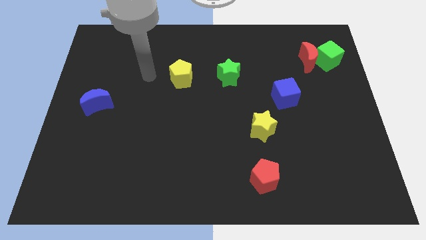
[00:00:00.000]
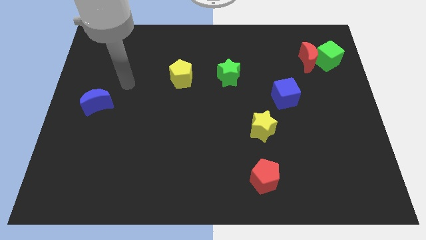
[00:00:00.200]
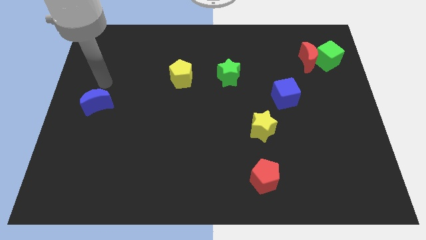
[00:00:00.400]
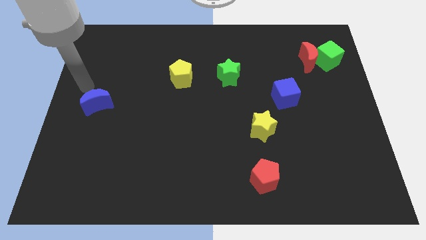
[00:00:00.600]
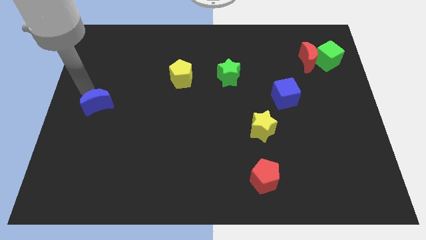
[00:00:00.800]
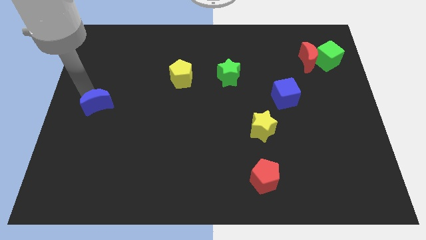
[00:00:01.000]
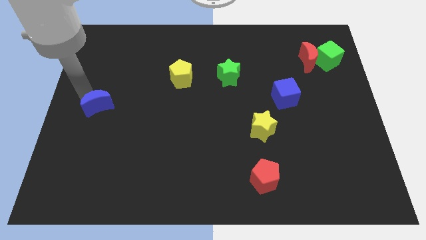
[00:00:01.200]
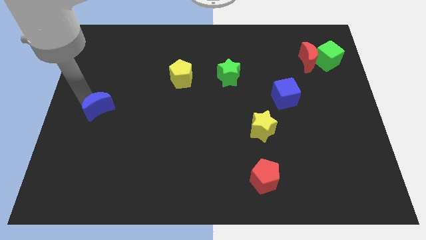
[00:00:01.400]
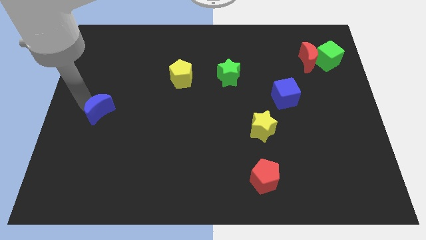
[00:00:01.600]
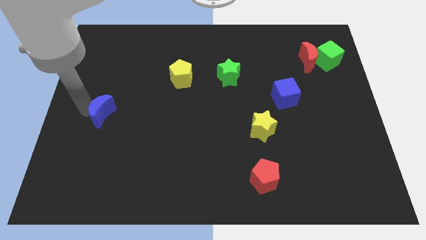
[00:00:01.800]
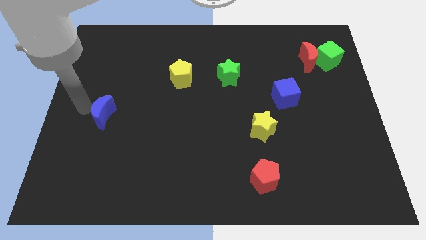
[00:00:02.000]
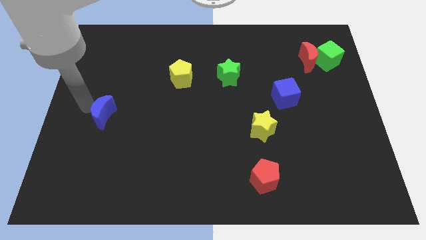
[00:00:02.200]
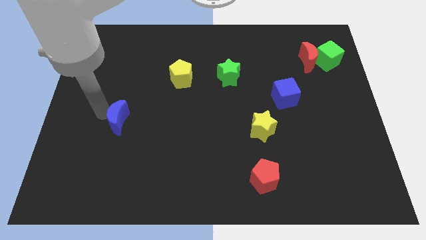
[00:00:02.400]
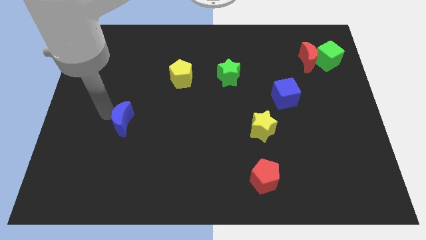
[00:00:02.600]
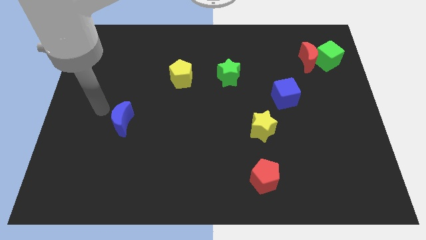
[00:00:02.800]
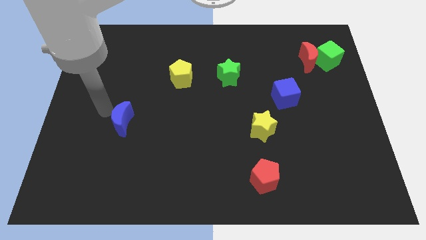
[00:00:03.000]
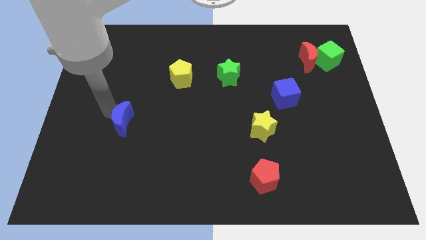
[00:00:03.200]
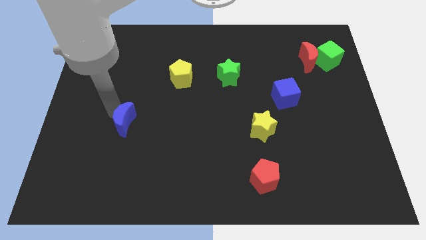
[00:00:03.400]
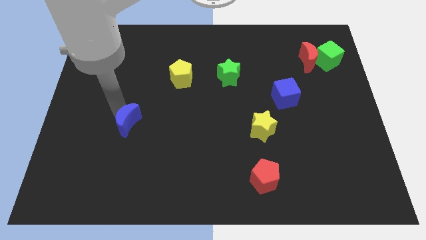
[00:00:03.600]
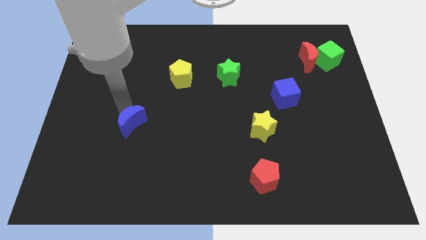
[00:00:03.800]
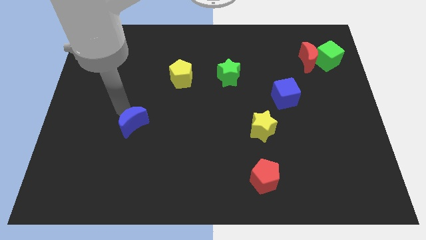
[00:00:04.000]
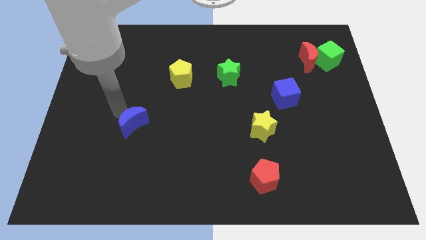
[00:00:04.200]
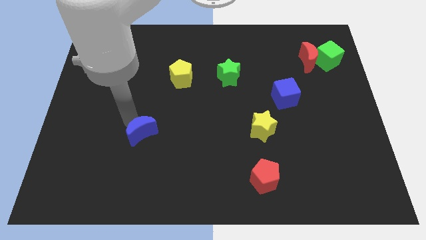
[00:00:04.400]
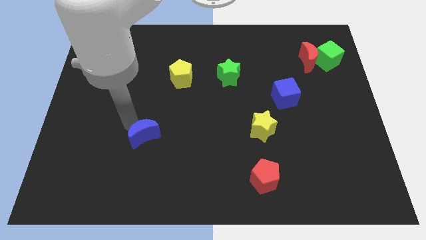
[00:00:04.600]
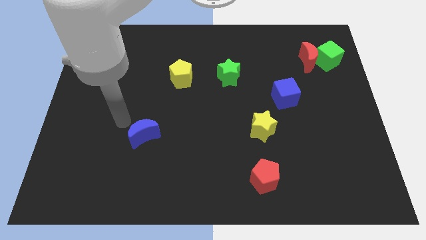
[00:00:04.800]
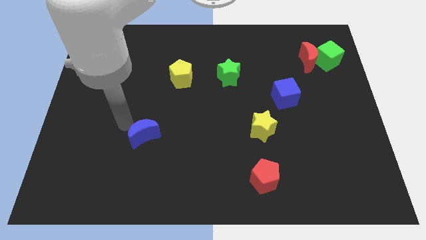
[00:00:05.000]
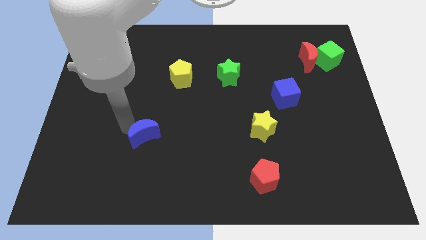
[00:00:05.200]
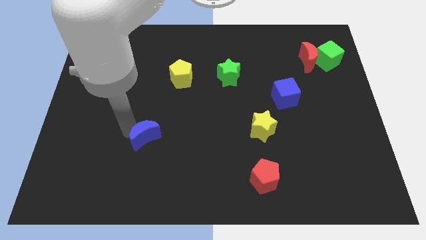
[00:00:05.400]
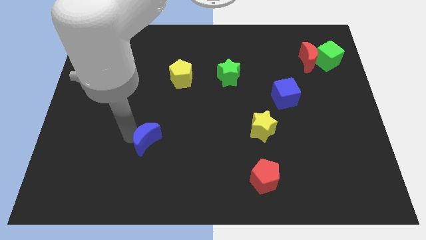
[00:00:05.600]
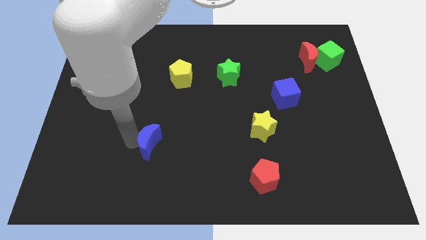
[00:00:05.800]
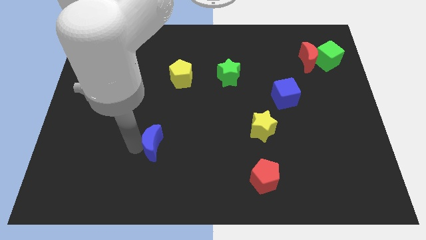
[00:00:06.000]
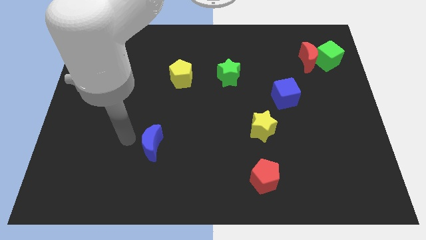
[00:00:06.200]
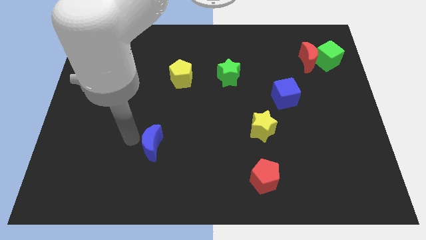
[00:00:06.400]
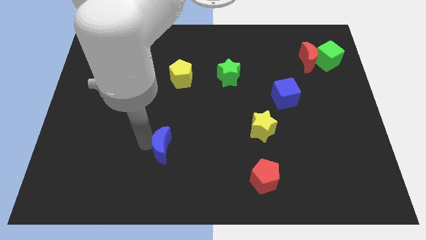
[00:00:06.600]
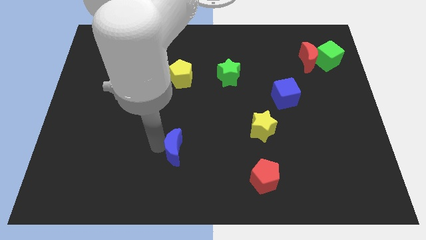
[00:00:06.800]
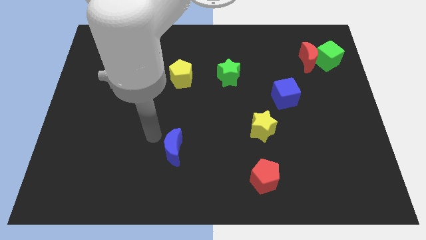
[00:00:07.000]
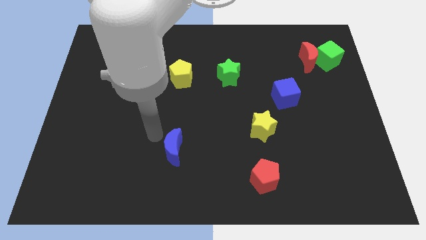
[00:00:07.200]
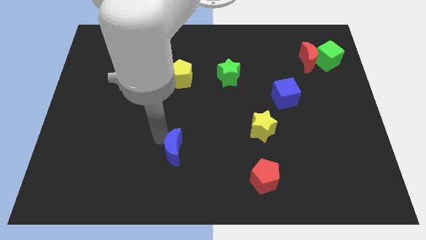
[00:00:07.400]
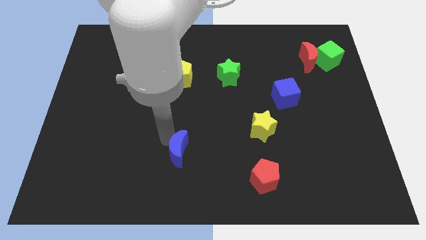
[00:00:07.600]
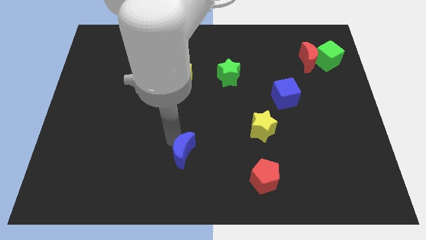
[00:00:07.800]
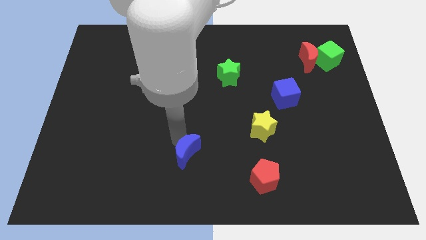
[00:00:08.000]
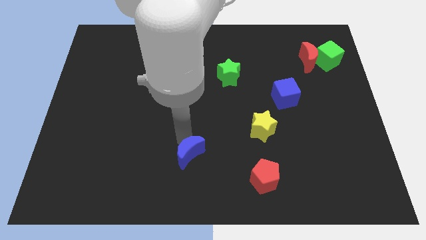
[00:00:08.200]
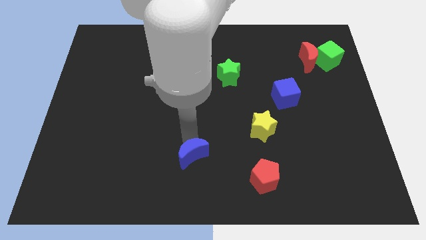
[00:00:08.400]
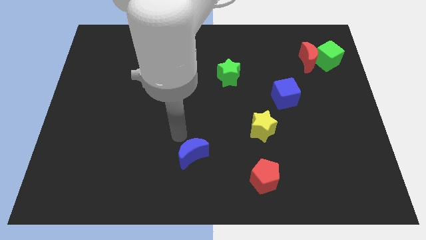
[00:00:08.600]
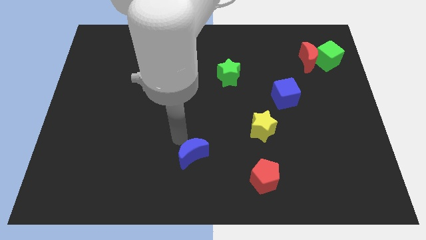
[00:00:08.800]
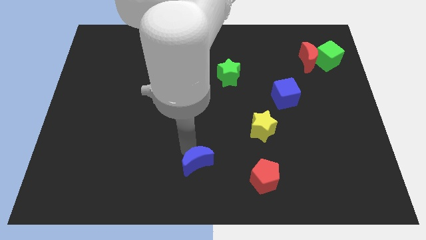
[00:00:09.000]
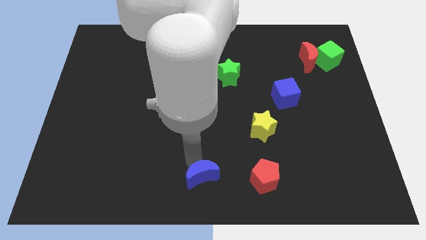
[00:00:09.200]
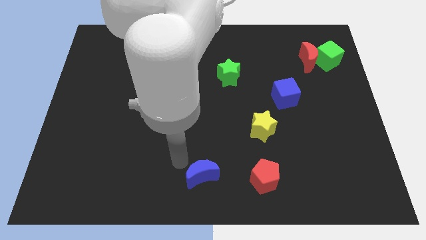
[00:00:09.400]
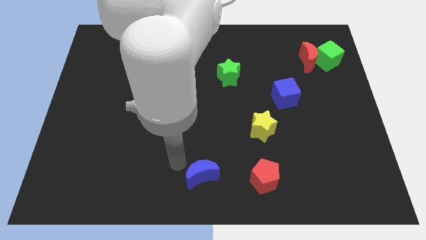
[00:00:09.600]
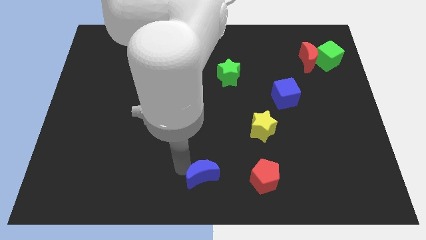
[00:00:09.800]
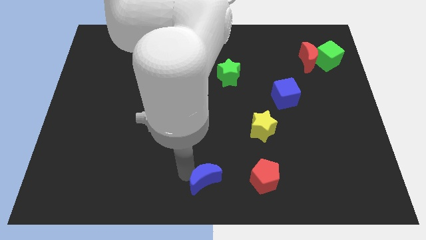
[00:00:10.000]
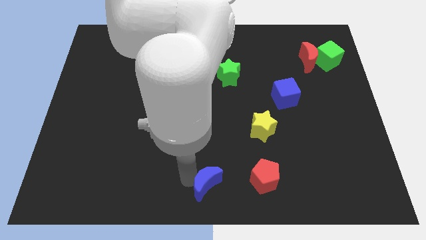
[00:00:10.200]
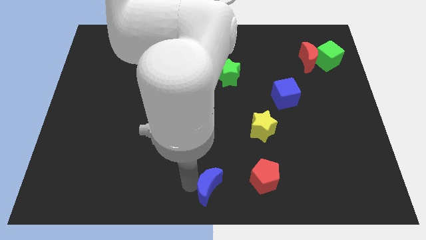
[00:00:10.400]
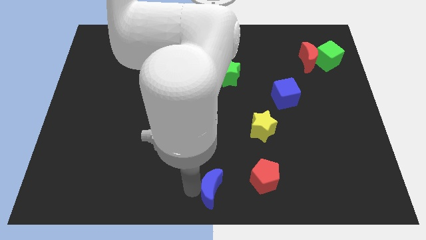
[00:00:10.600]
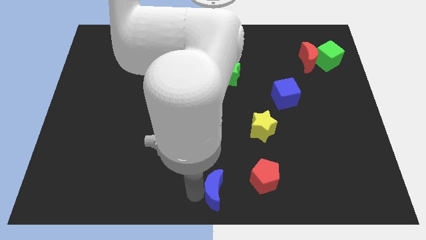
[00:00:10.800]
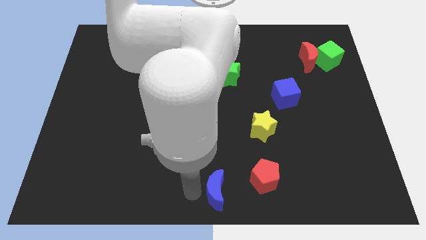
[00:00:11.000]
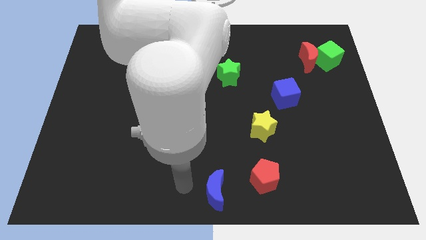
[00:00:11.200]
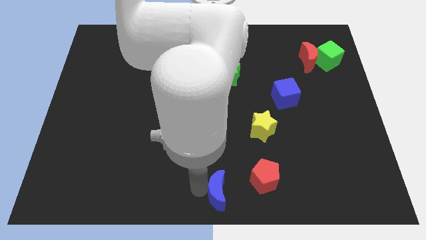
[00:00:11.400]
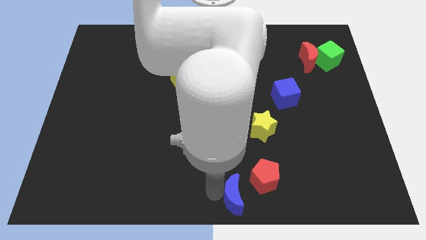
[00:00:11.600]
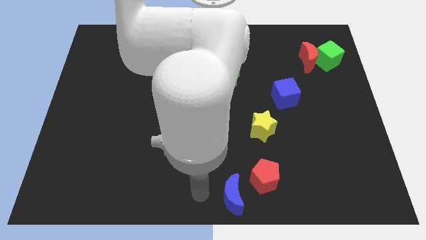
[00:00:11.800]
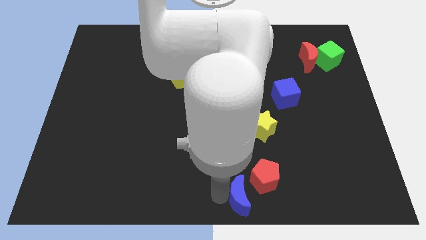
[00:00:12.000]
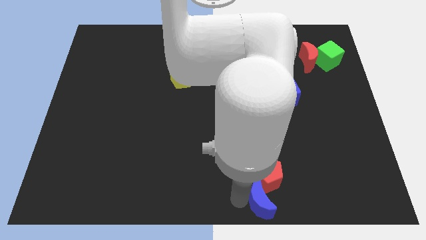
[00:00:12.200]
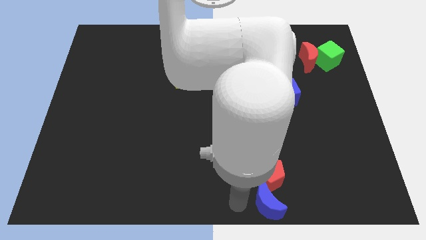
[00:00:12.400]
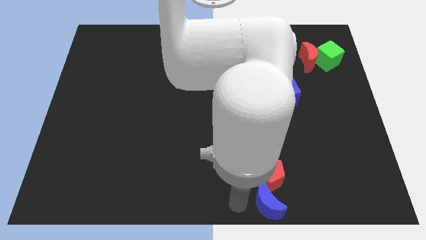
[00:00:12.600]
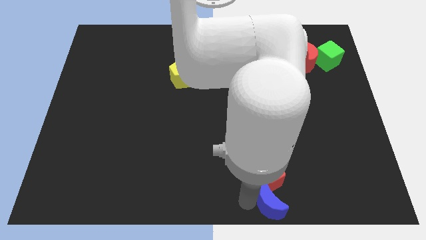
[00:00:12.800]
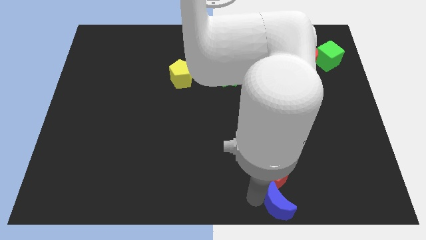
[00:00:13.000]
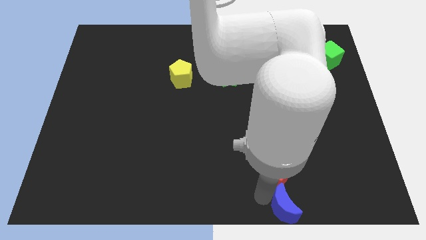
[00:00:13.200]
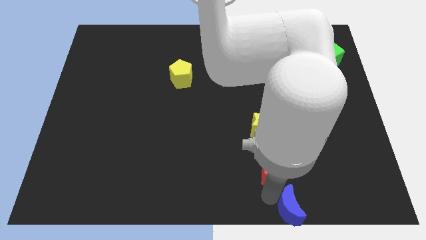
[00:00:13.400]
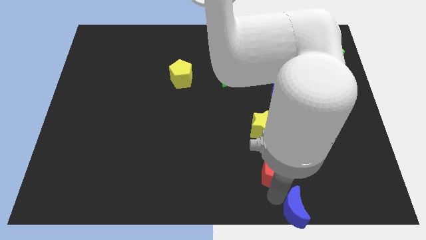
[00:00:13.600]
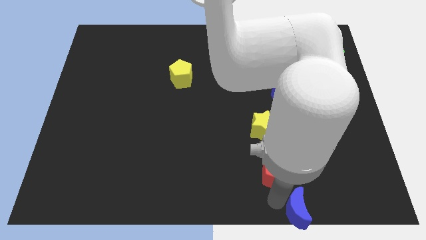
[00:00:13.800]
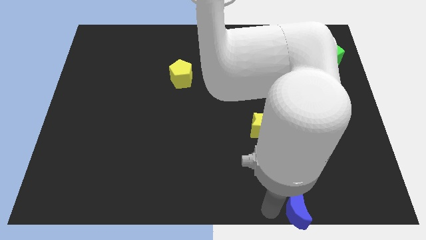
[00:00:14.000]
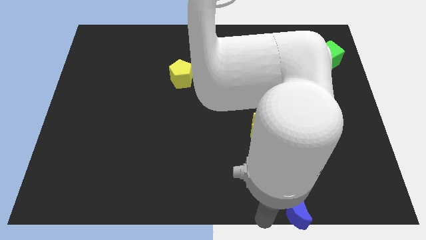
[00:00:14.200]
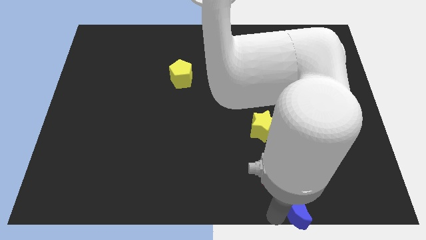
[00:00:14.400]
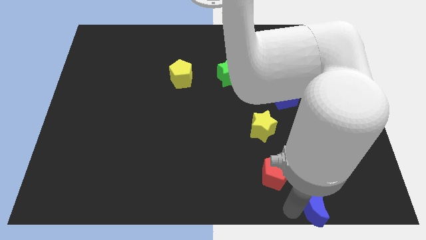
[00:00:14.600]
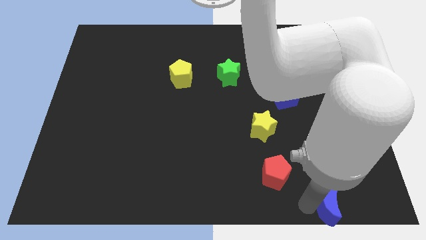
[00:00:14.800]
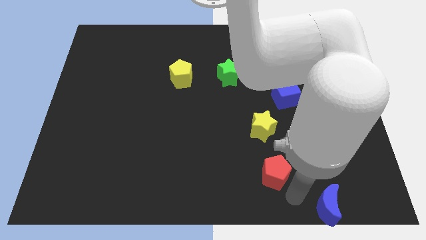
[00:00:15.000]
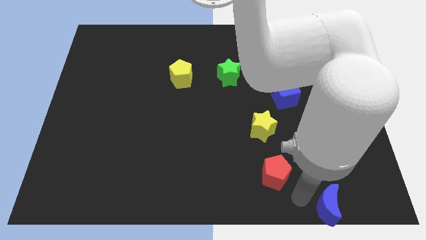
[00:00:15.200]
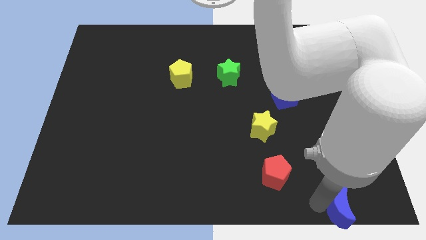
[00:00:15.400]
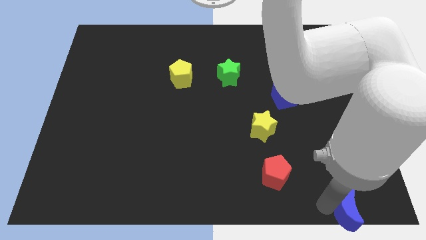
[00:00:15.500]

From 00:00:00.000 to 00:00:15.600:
put the blue moon to the bottom right
